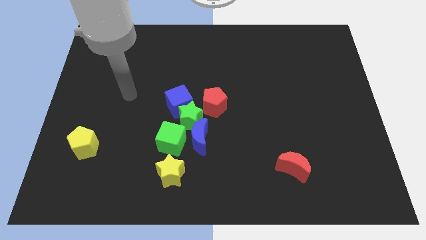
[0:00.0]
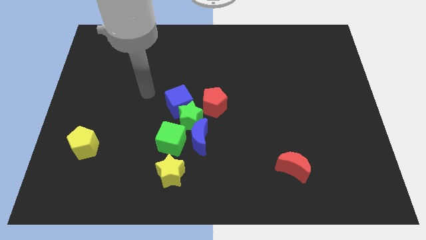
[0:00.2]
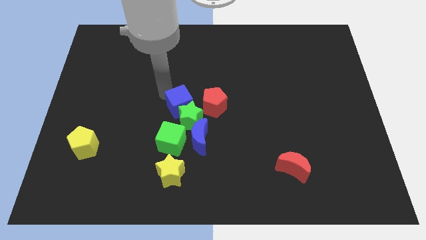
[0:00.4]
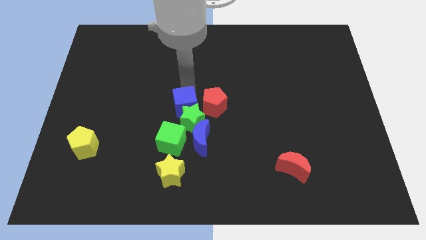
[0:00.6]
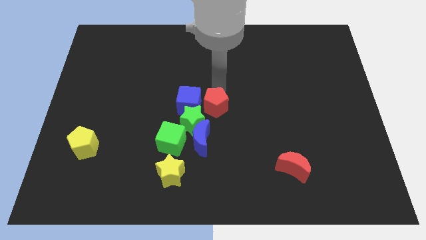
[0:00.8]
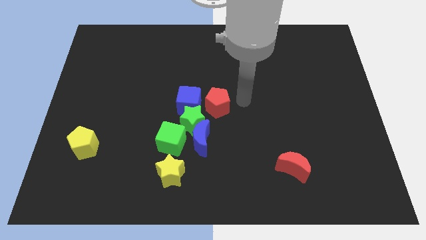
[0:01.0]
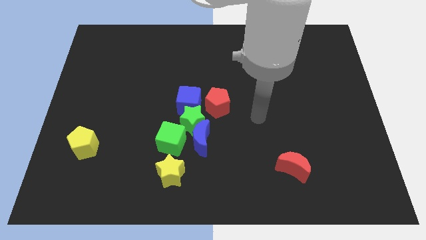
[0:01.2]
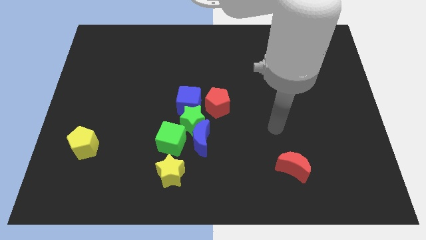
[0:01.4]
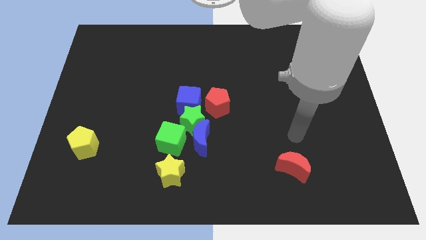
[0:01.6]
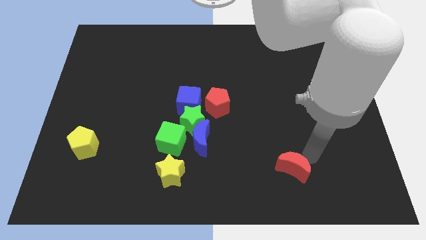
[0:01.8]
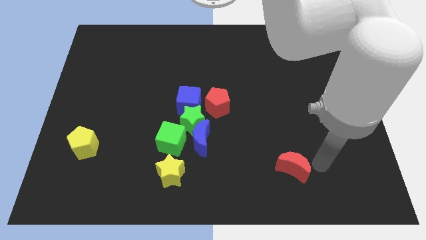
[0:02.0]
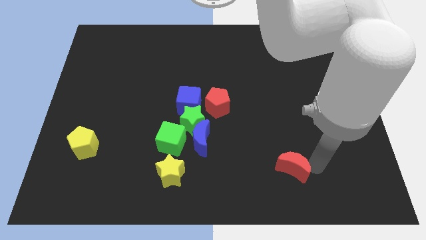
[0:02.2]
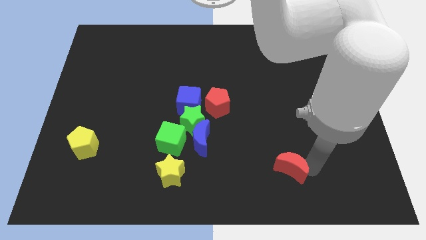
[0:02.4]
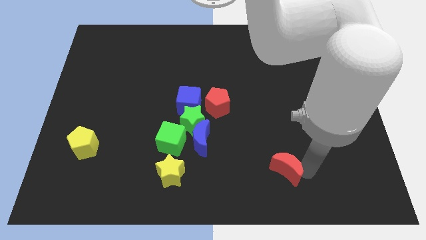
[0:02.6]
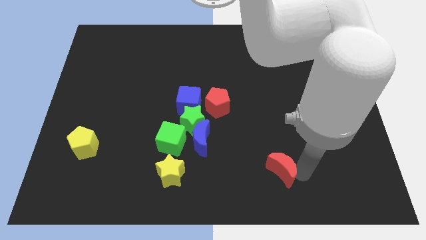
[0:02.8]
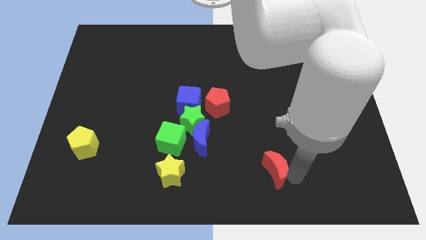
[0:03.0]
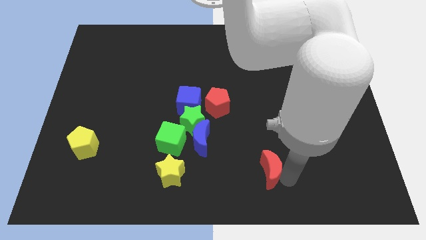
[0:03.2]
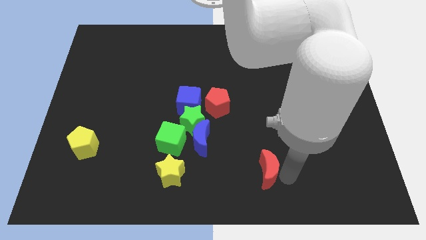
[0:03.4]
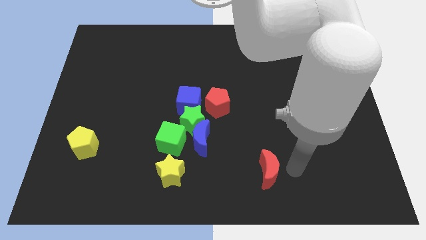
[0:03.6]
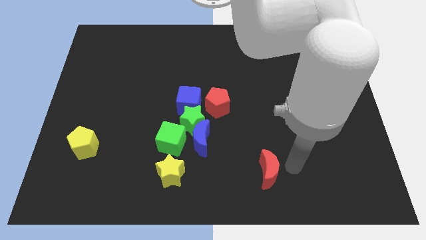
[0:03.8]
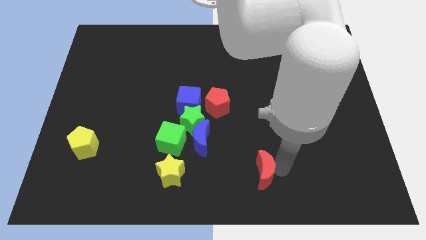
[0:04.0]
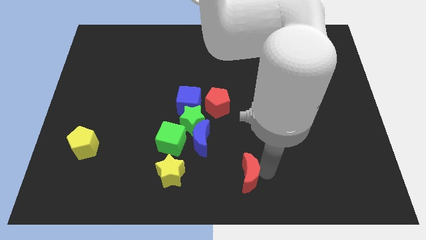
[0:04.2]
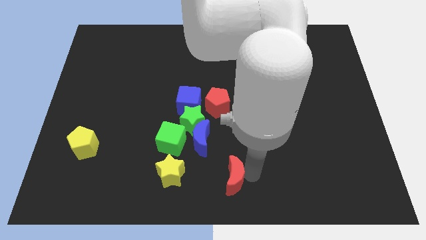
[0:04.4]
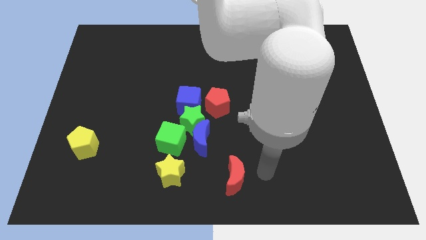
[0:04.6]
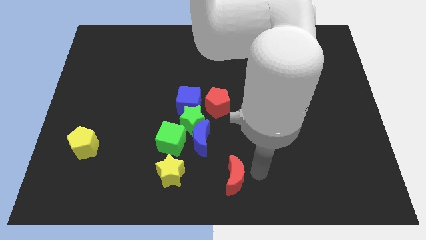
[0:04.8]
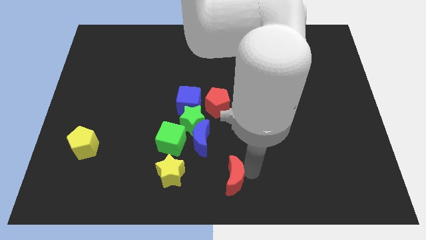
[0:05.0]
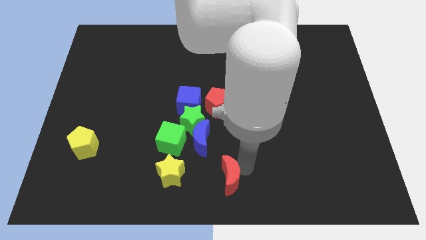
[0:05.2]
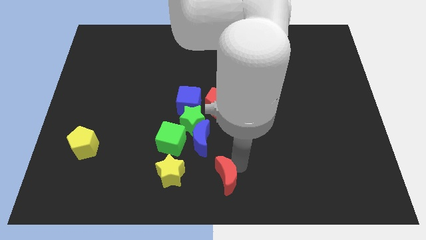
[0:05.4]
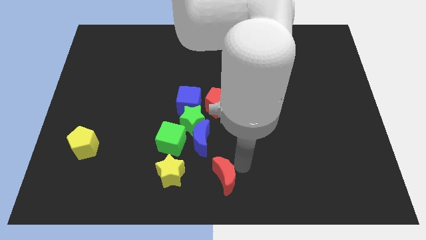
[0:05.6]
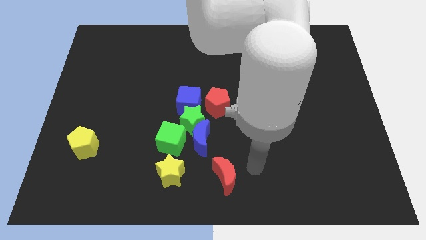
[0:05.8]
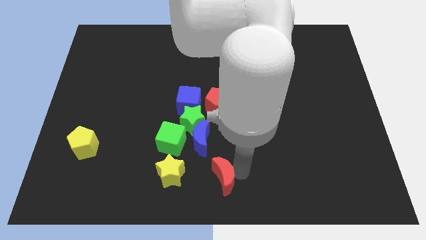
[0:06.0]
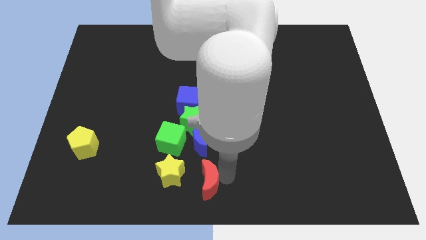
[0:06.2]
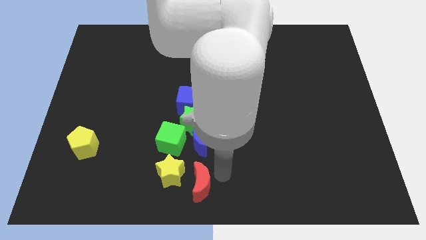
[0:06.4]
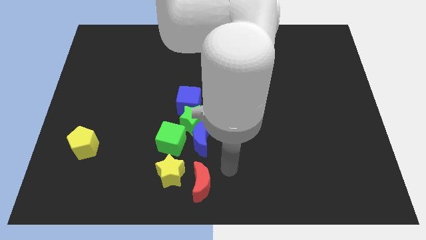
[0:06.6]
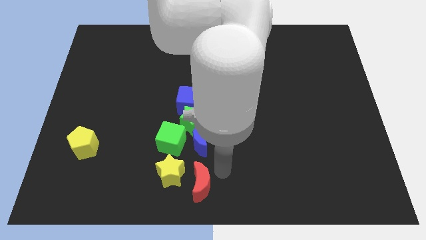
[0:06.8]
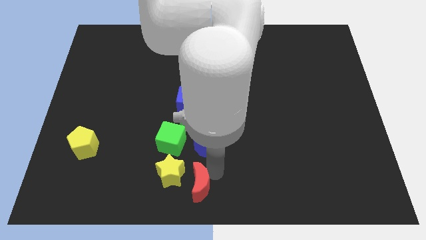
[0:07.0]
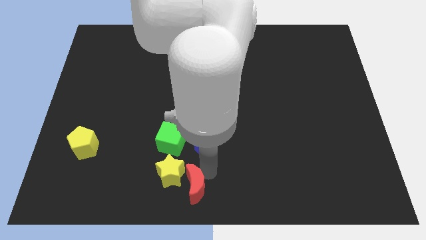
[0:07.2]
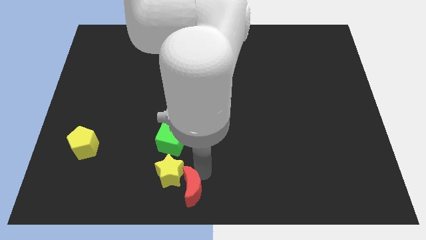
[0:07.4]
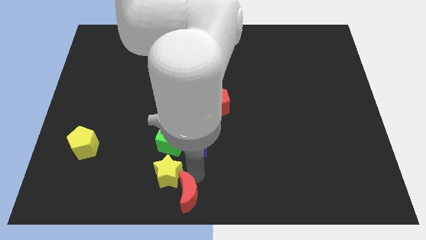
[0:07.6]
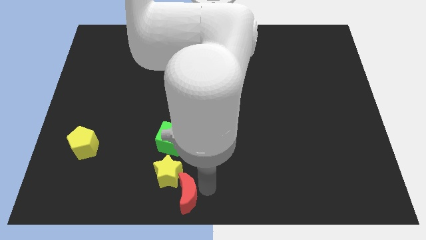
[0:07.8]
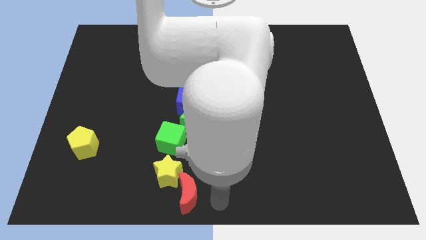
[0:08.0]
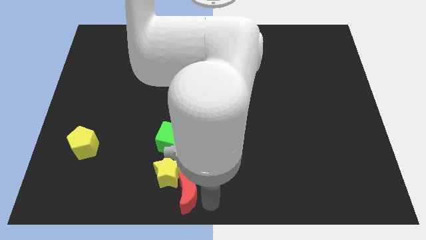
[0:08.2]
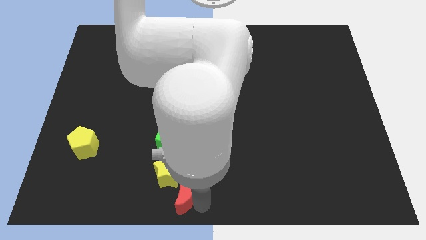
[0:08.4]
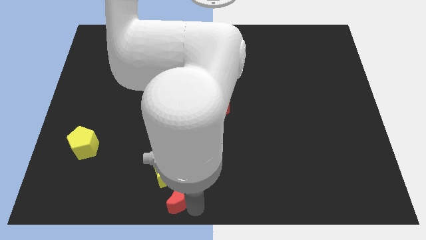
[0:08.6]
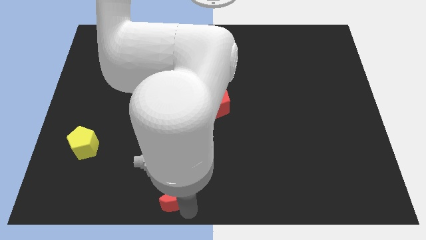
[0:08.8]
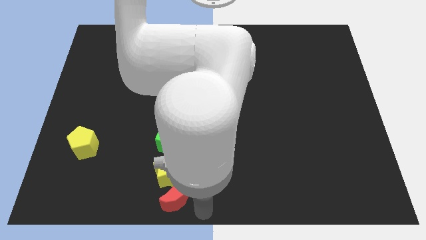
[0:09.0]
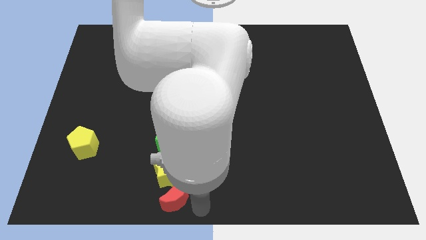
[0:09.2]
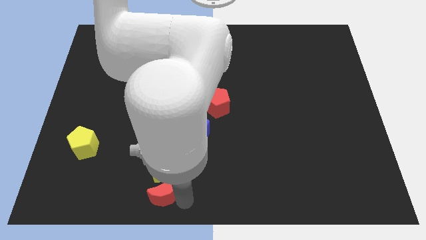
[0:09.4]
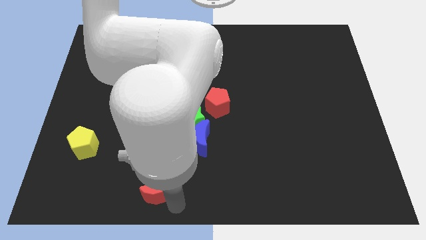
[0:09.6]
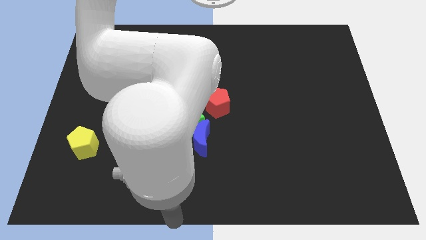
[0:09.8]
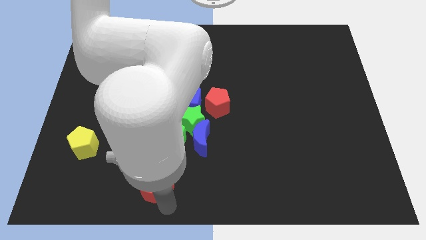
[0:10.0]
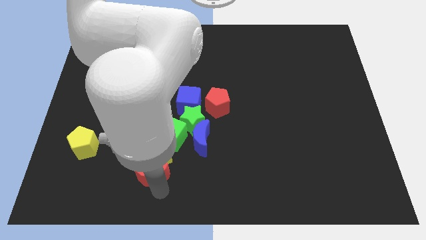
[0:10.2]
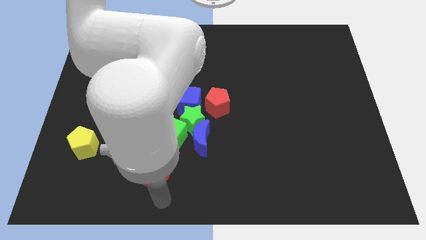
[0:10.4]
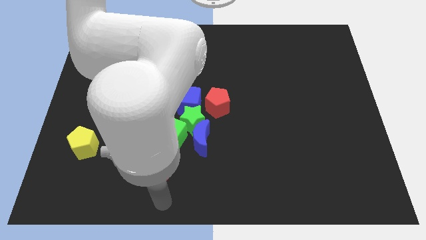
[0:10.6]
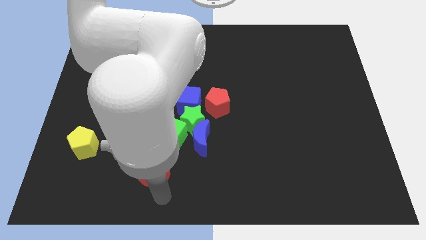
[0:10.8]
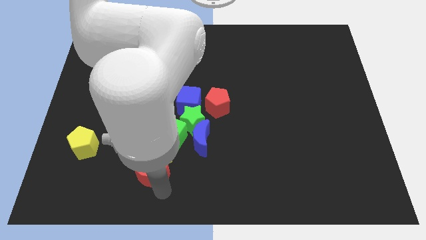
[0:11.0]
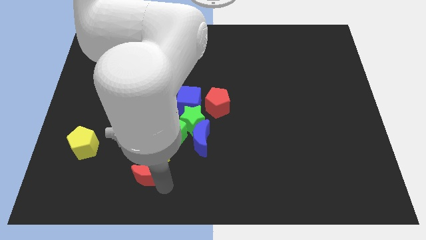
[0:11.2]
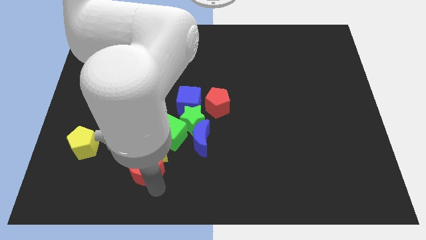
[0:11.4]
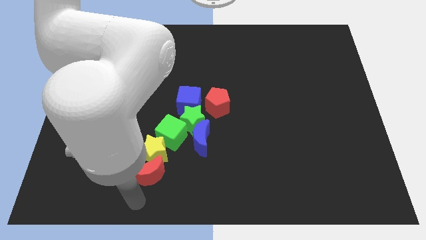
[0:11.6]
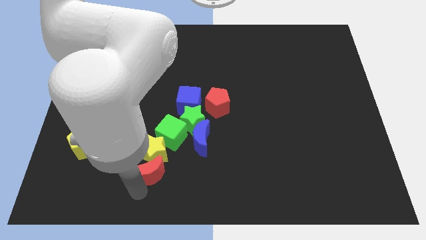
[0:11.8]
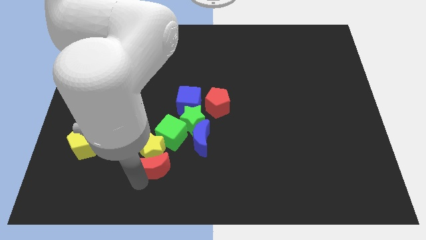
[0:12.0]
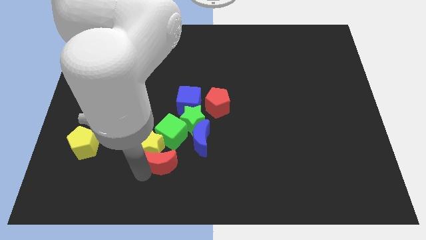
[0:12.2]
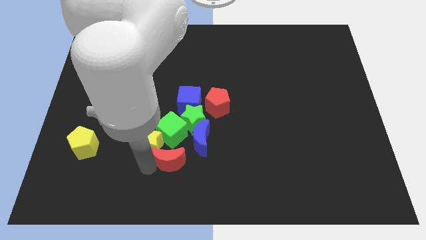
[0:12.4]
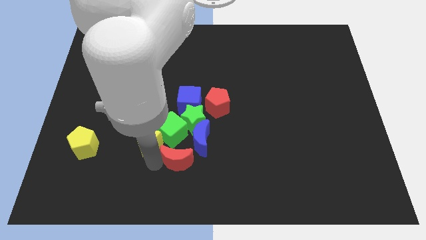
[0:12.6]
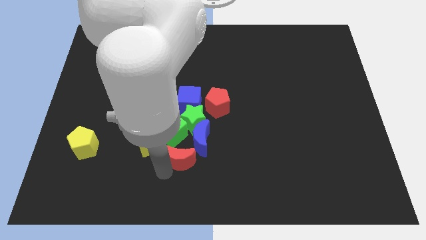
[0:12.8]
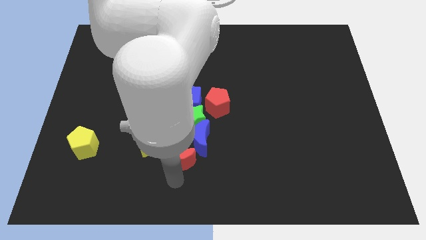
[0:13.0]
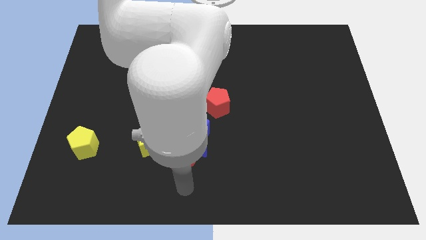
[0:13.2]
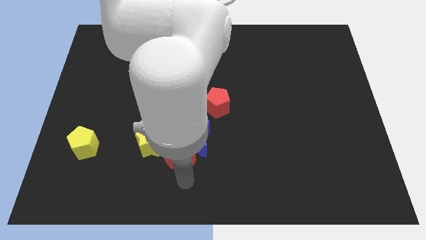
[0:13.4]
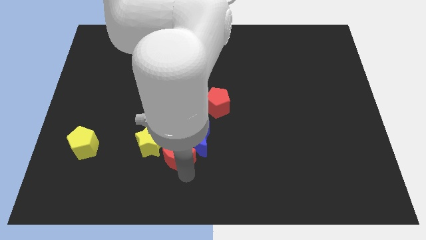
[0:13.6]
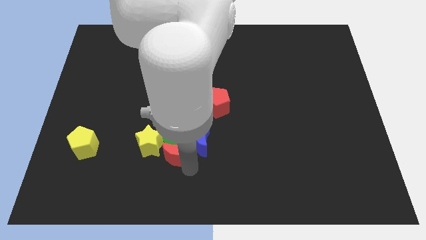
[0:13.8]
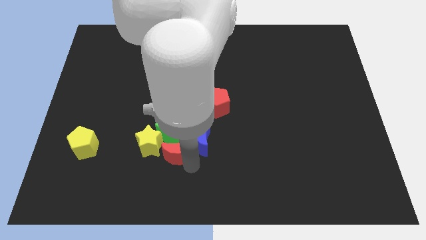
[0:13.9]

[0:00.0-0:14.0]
push the red moon to the green cube

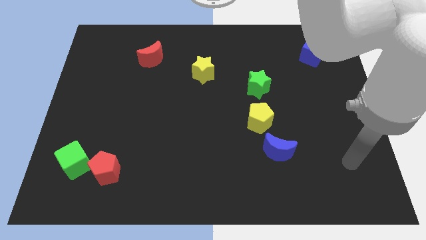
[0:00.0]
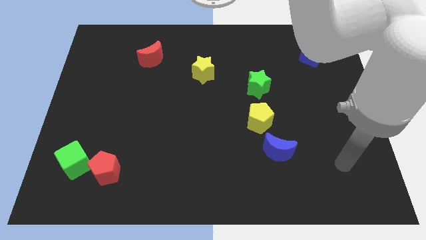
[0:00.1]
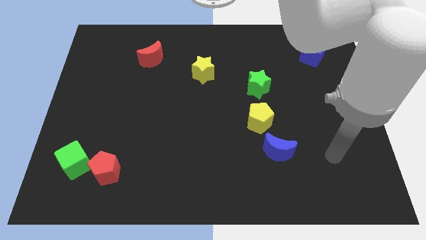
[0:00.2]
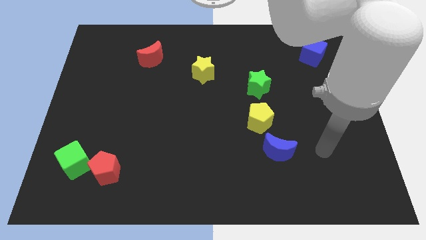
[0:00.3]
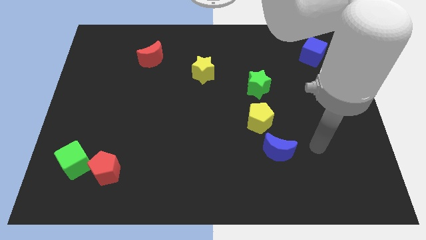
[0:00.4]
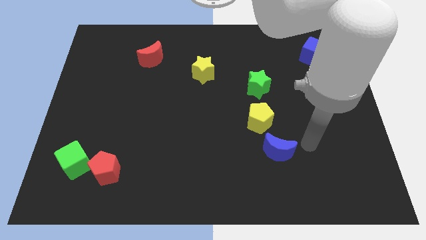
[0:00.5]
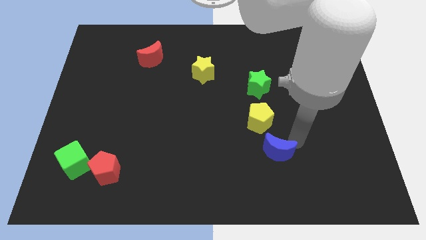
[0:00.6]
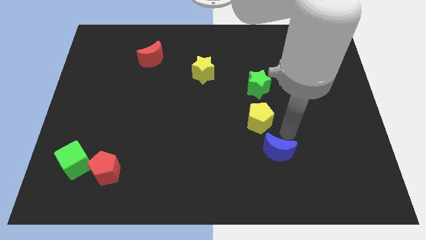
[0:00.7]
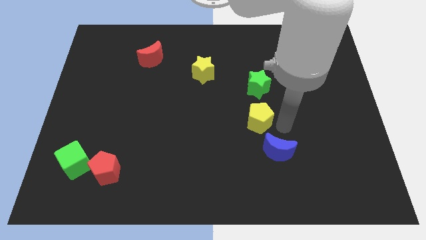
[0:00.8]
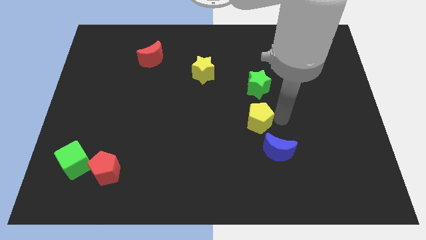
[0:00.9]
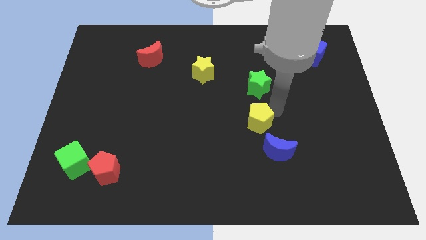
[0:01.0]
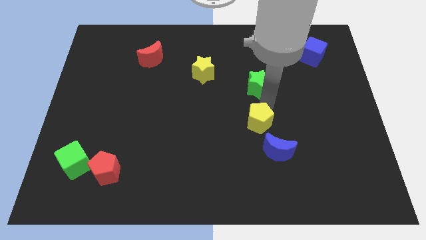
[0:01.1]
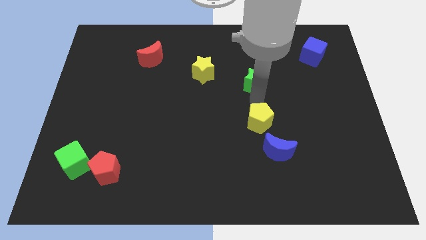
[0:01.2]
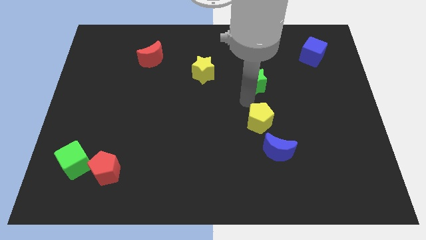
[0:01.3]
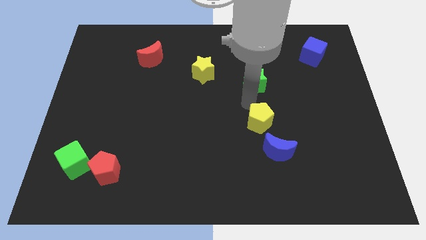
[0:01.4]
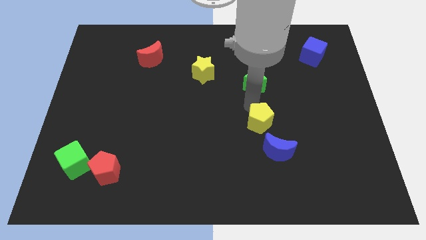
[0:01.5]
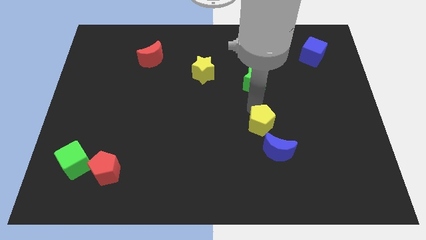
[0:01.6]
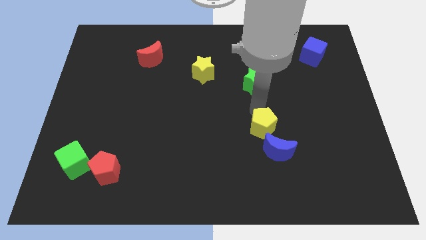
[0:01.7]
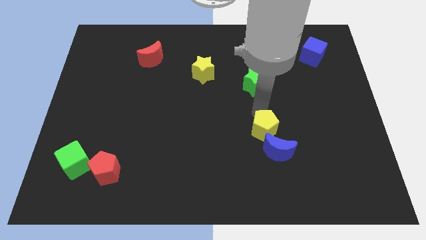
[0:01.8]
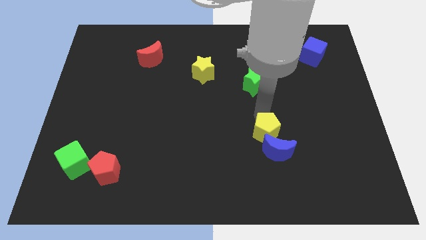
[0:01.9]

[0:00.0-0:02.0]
put the yellow pentagon towards the blue moon
